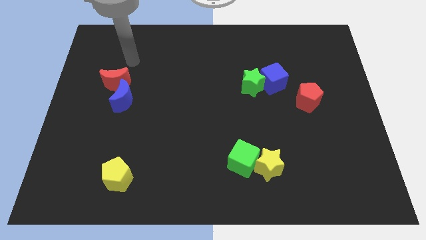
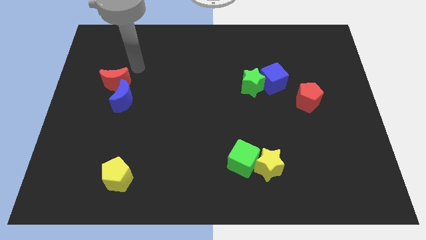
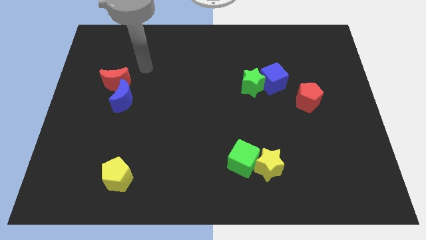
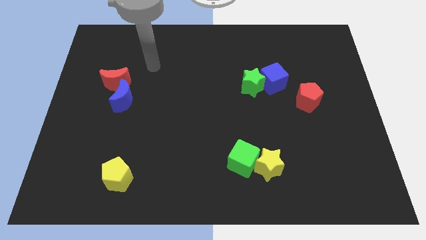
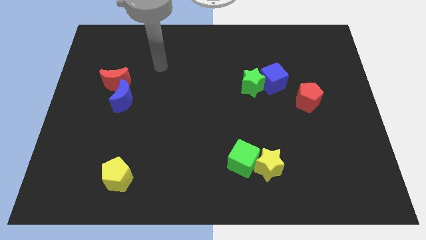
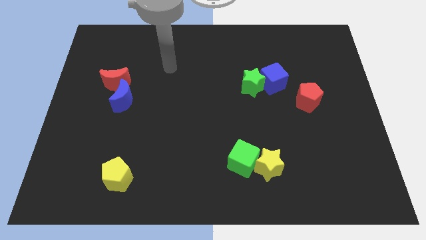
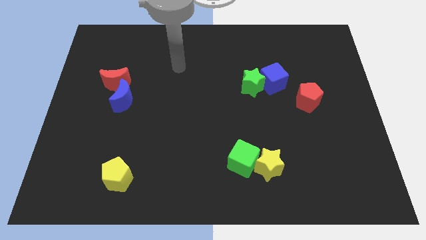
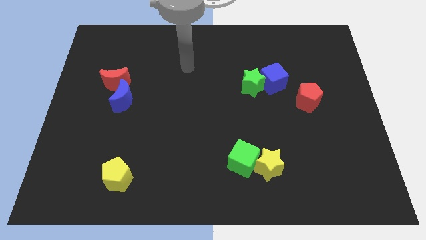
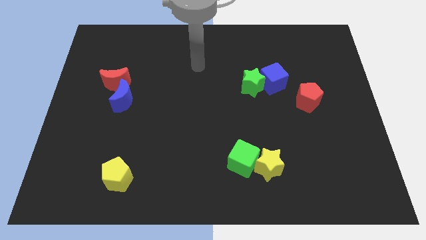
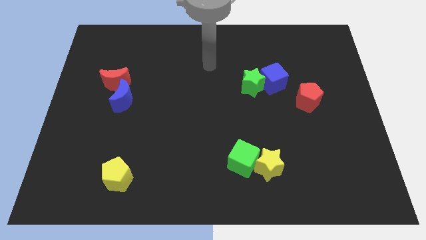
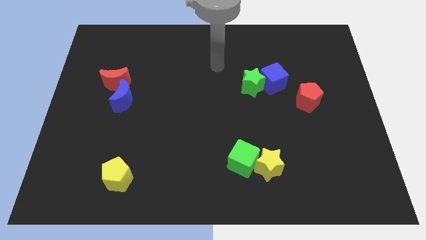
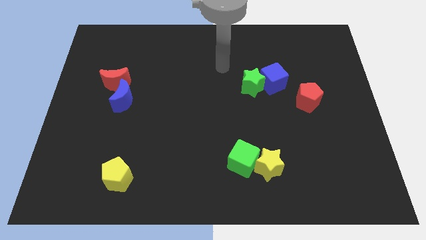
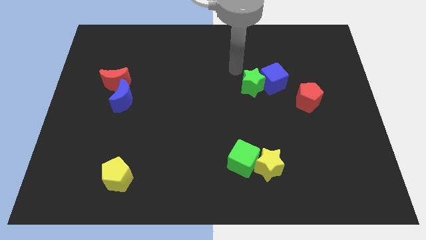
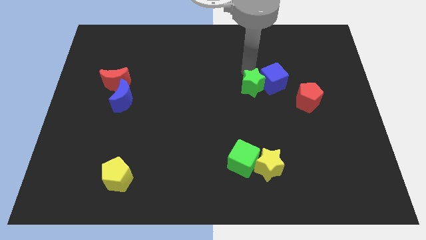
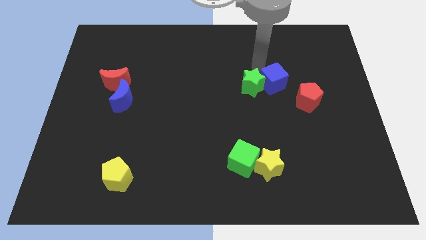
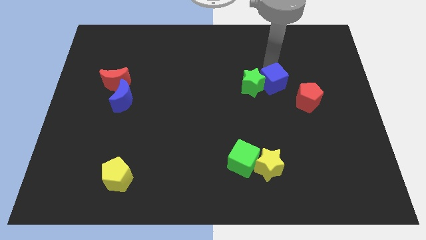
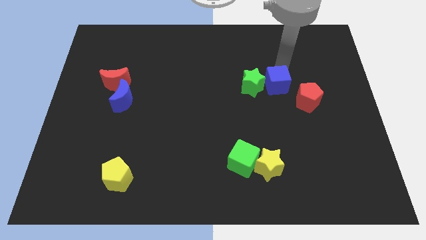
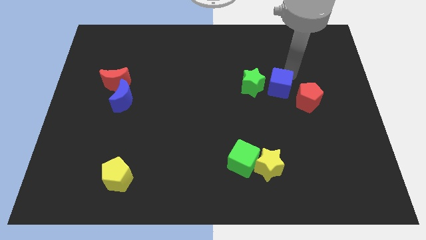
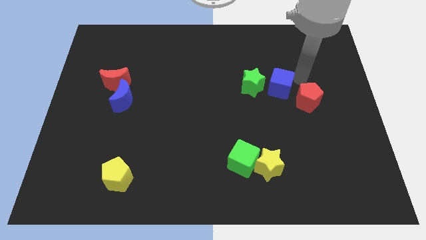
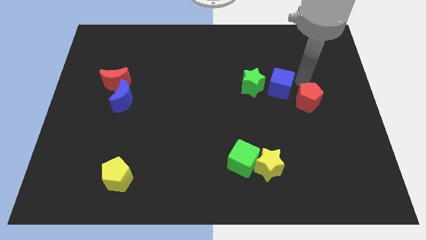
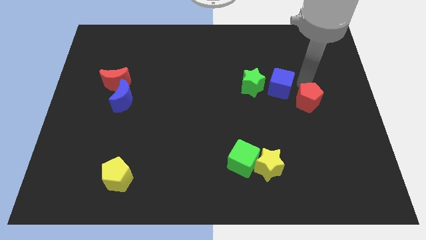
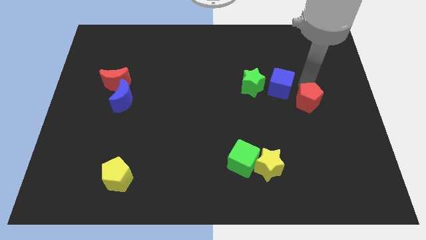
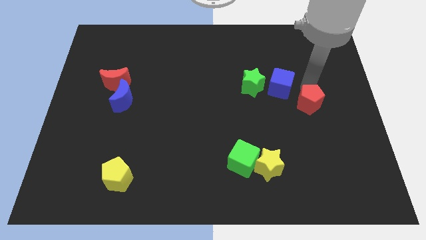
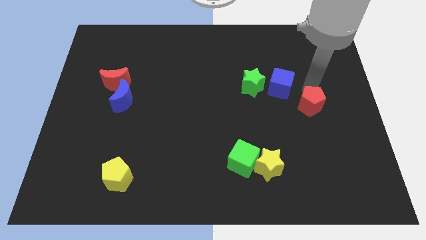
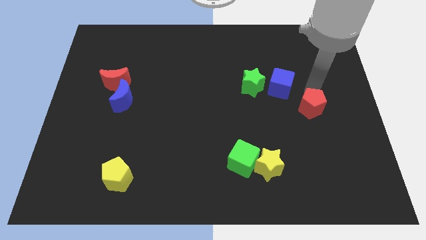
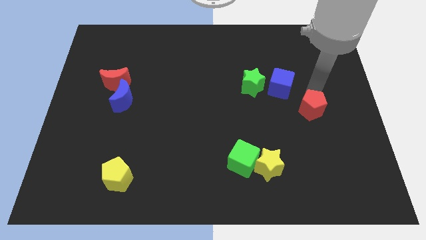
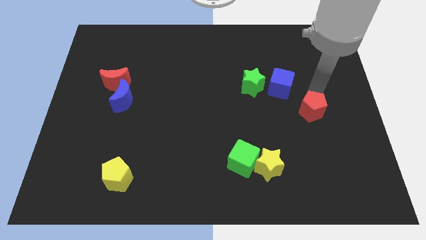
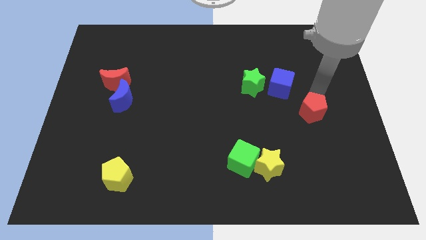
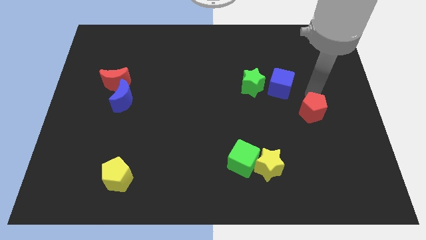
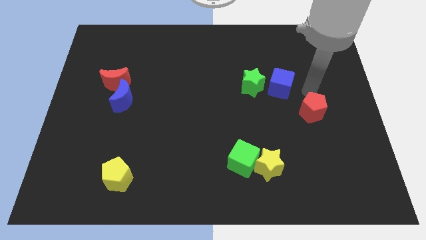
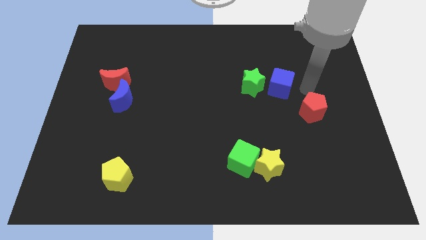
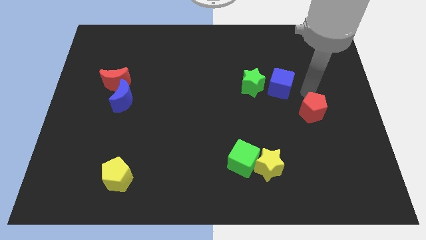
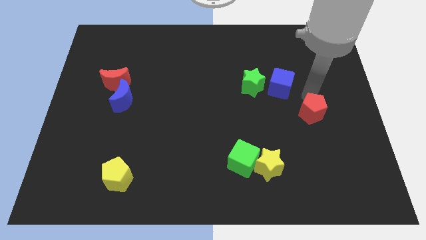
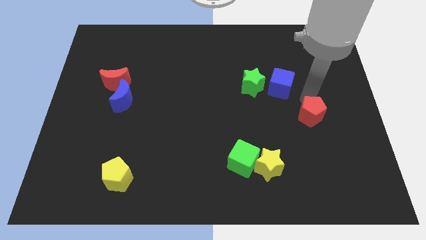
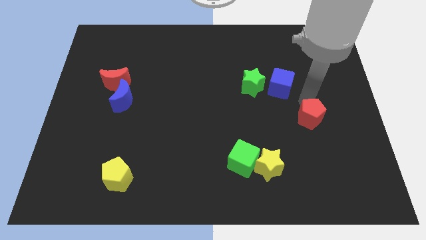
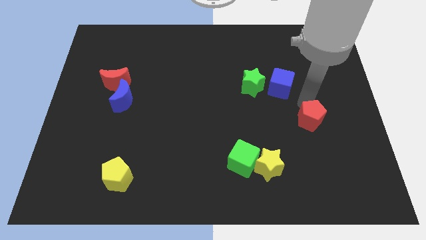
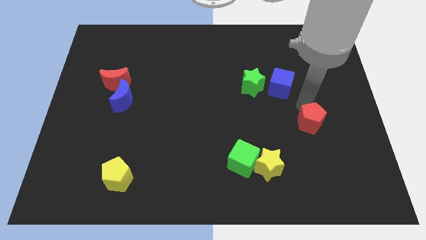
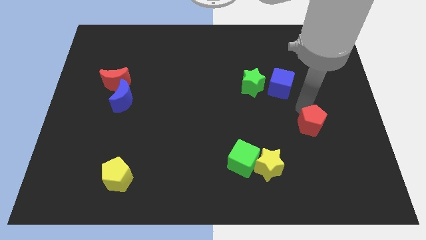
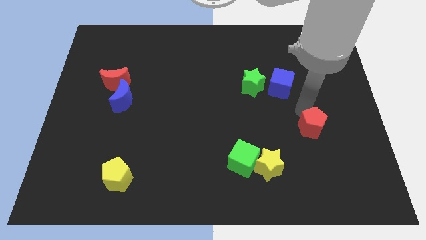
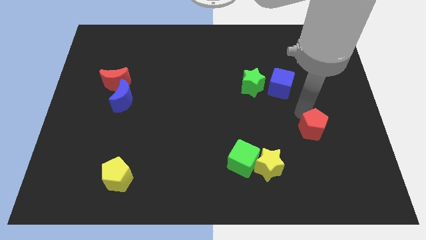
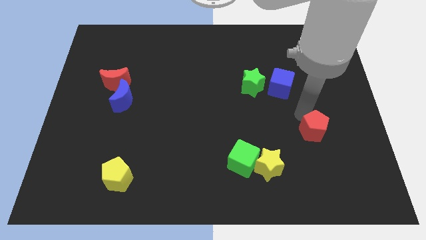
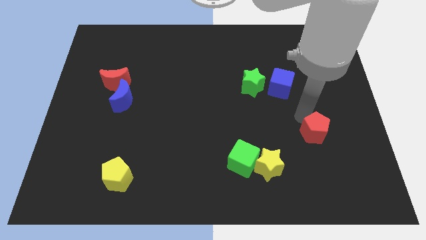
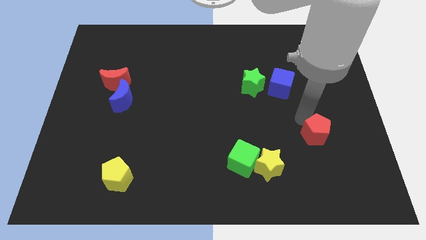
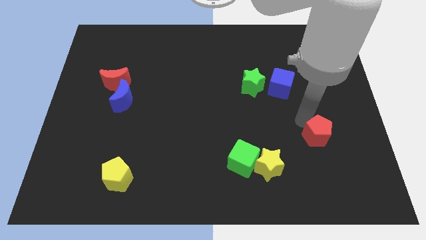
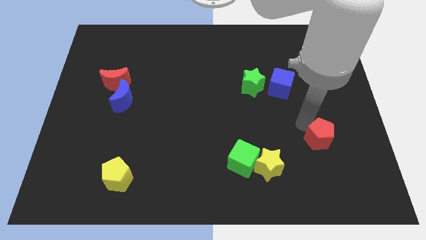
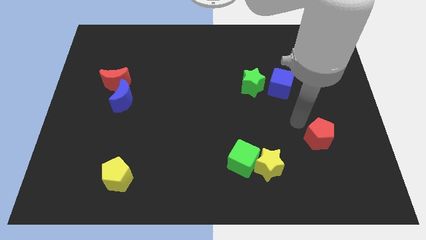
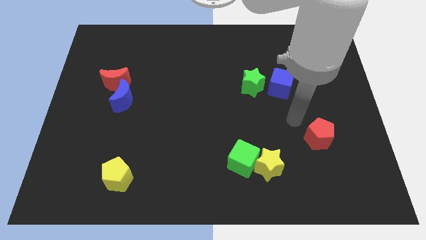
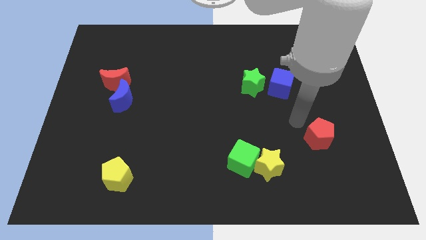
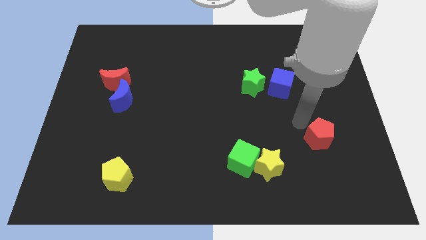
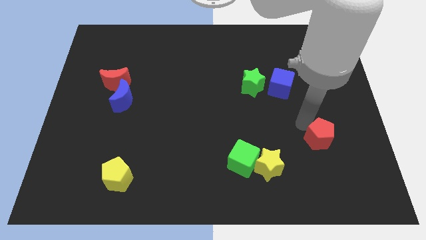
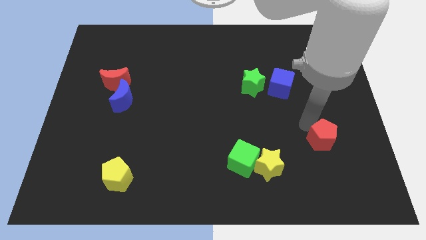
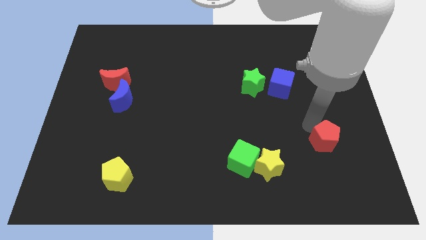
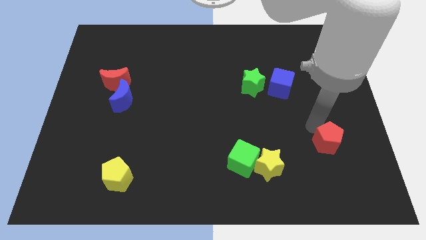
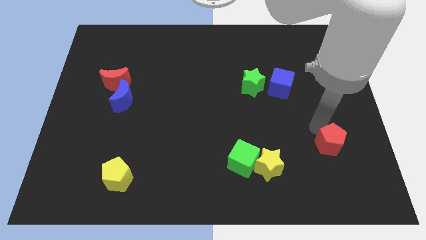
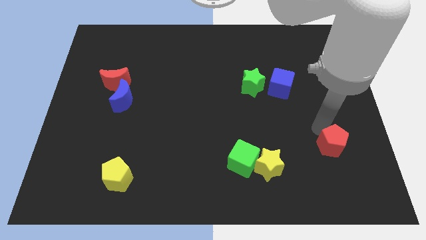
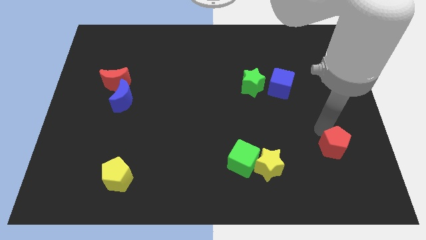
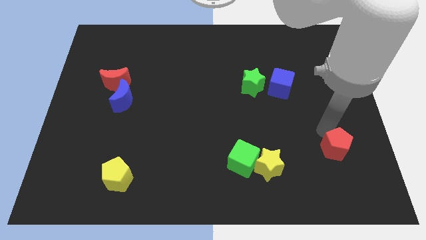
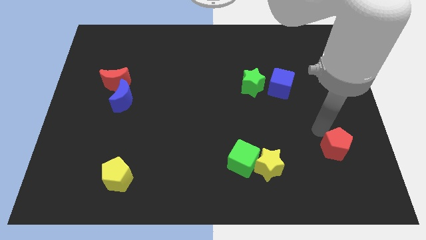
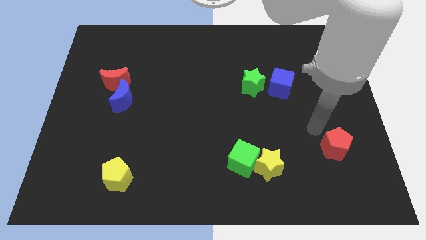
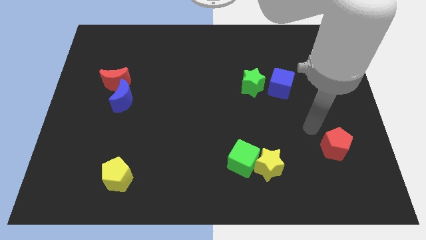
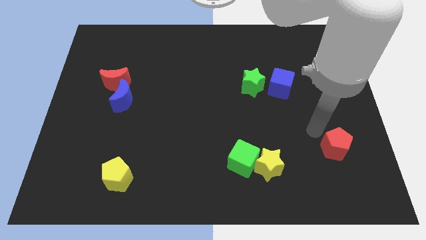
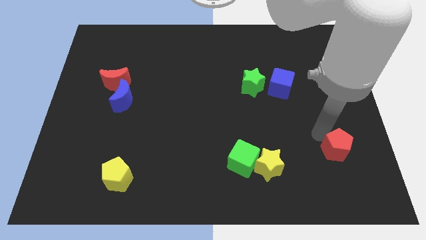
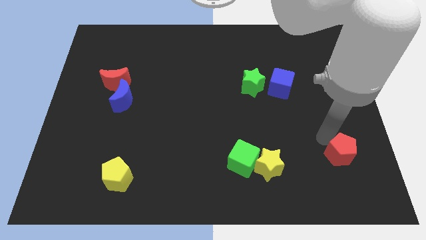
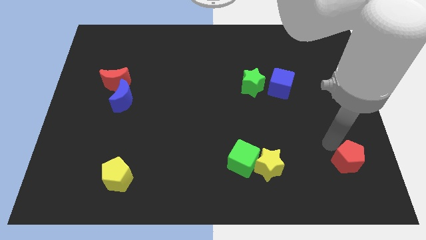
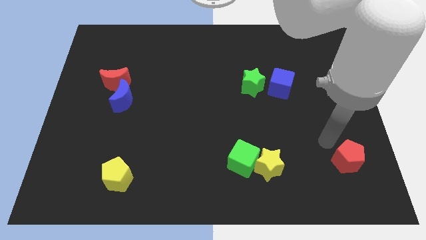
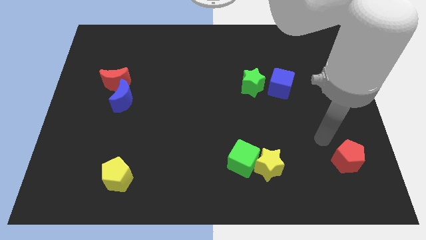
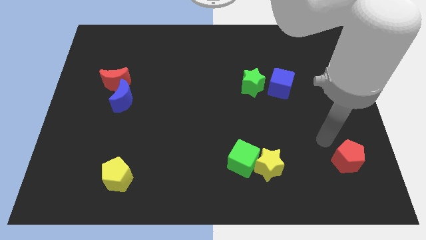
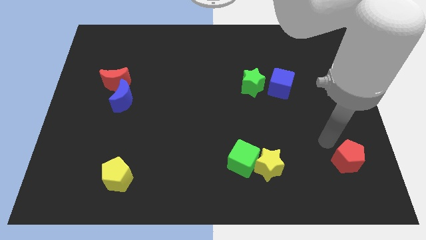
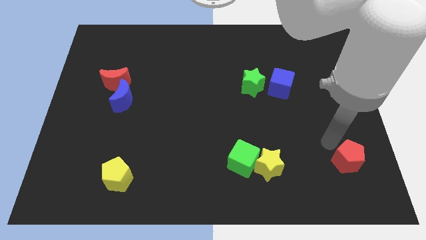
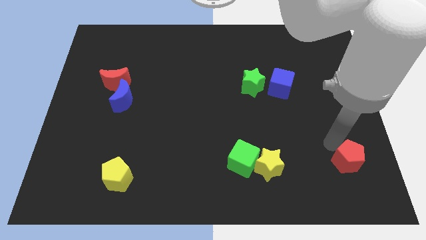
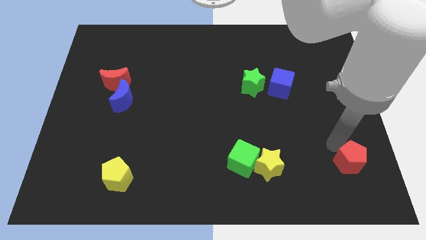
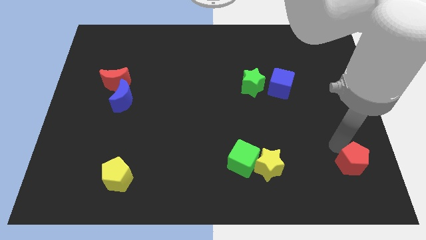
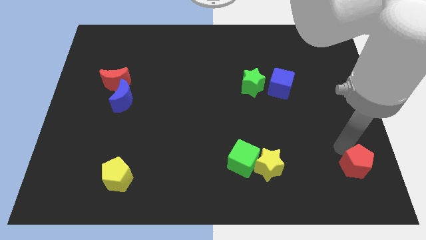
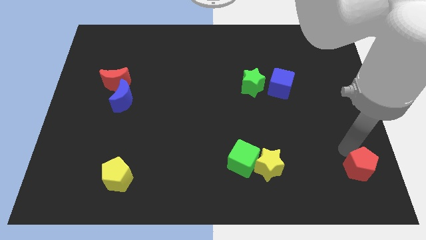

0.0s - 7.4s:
move the red pentagon to the bottom right of the board
